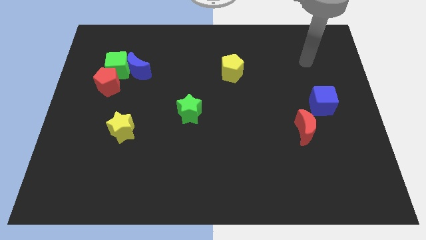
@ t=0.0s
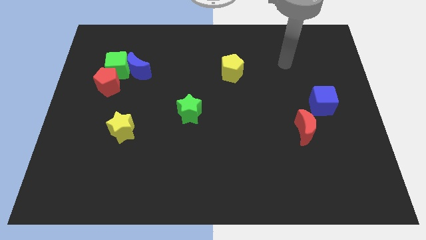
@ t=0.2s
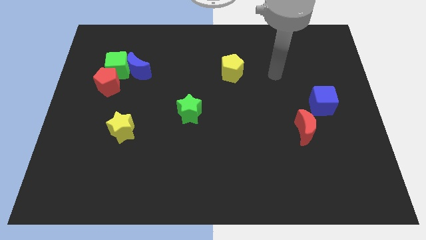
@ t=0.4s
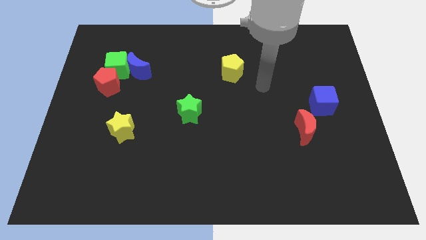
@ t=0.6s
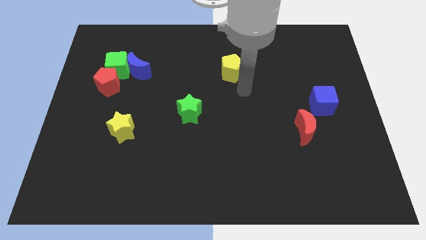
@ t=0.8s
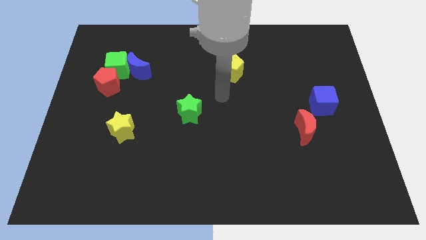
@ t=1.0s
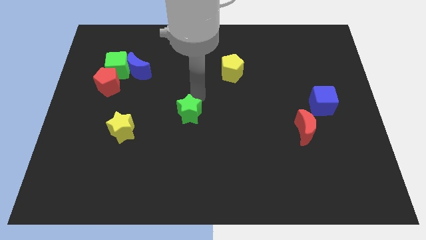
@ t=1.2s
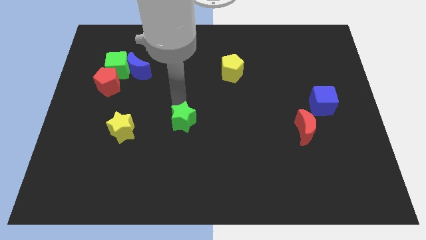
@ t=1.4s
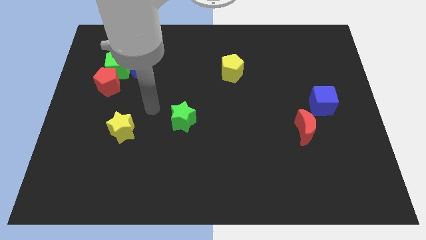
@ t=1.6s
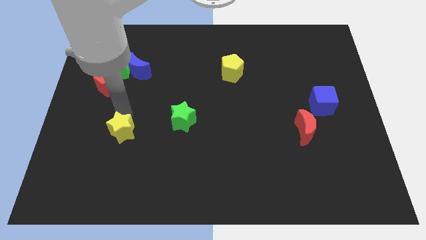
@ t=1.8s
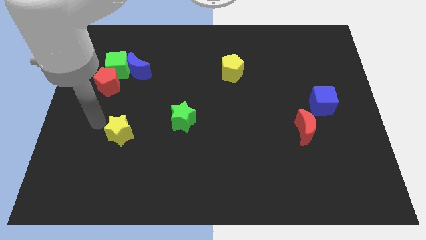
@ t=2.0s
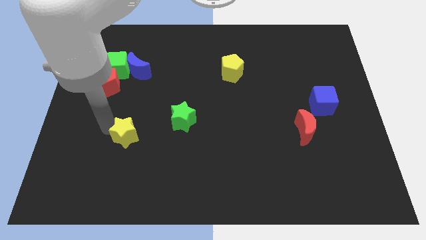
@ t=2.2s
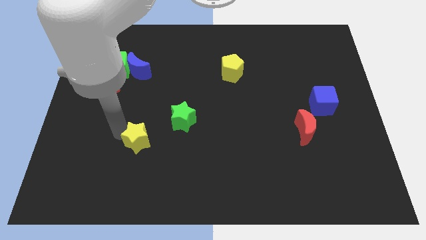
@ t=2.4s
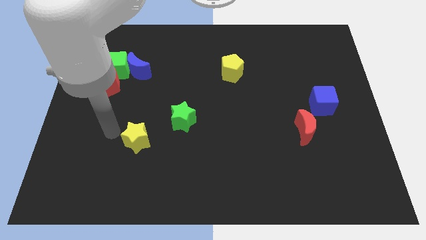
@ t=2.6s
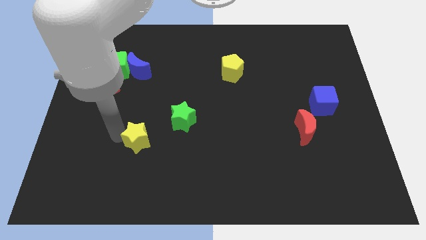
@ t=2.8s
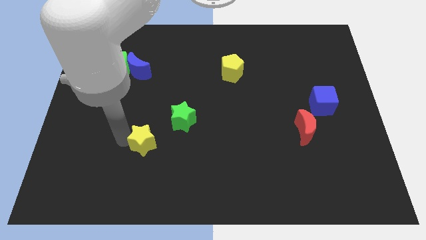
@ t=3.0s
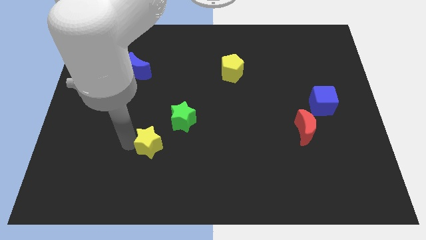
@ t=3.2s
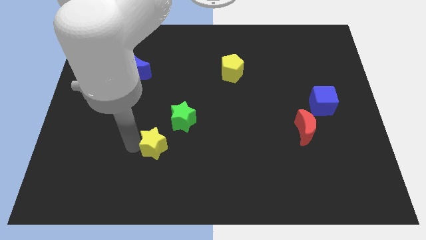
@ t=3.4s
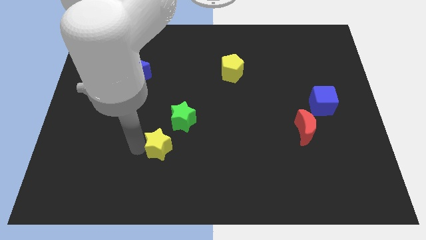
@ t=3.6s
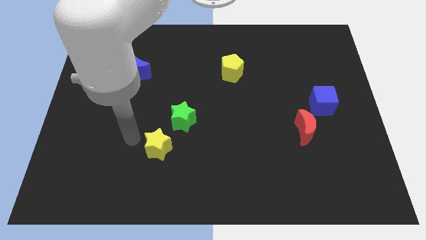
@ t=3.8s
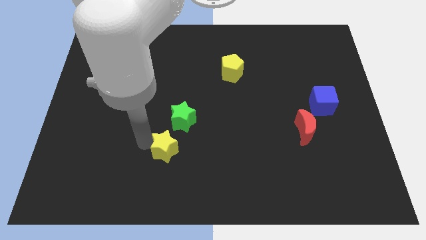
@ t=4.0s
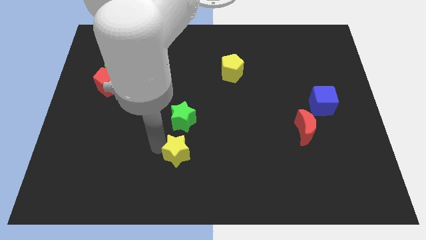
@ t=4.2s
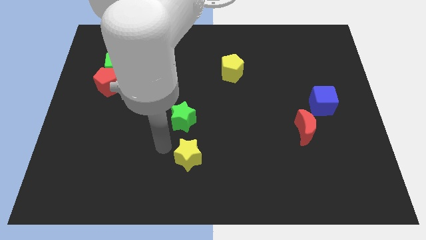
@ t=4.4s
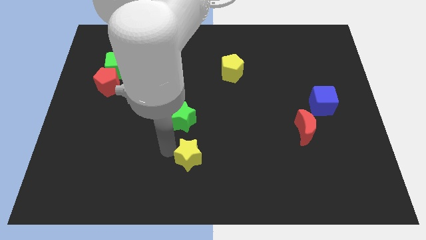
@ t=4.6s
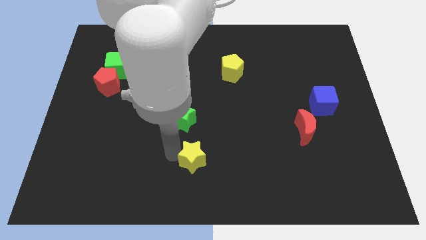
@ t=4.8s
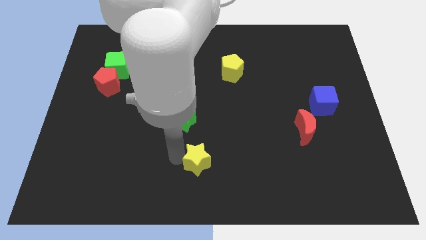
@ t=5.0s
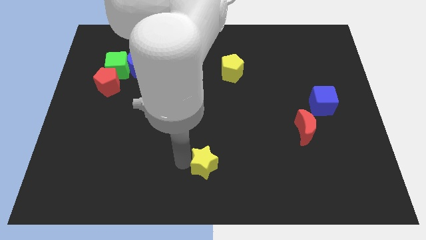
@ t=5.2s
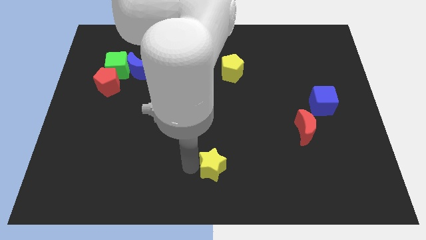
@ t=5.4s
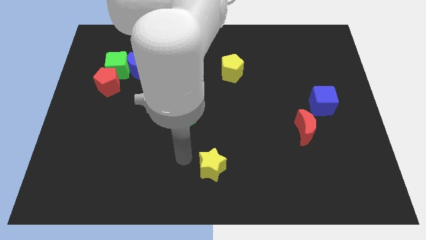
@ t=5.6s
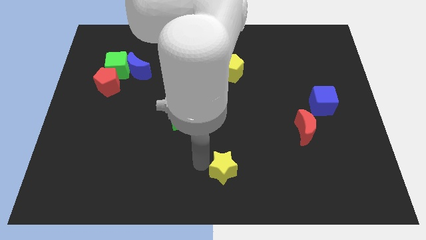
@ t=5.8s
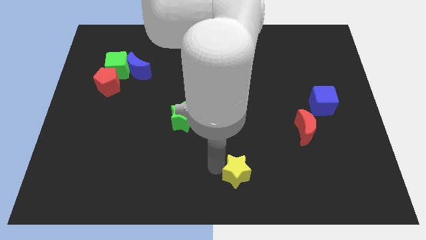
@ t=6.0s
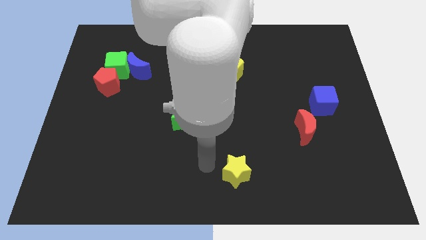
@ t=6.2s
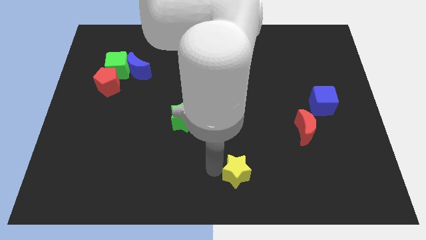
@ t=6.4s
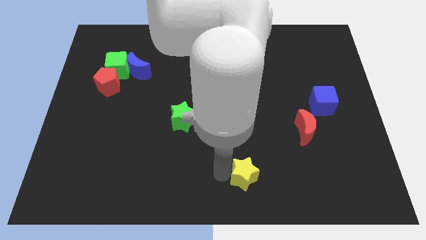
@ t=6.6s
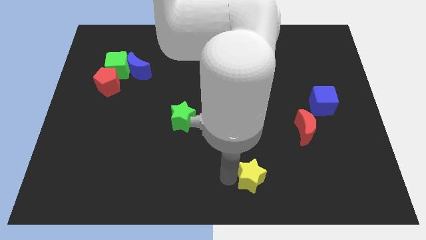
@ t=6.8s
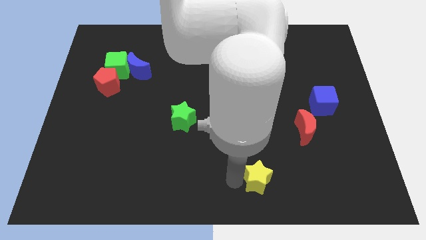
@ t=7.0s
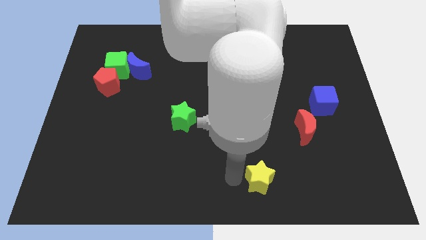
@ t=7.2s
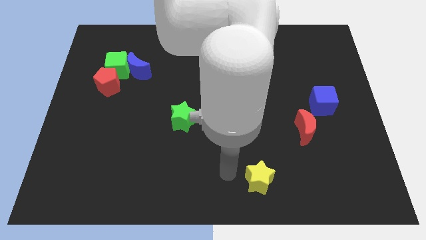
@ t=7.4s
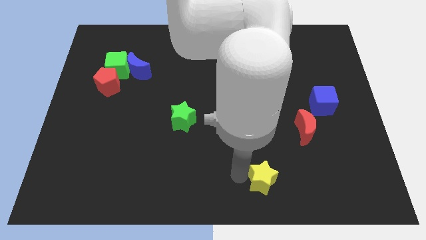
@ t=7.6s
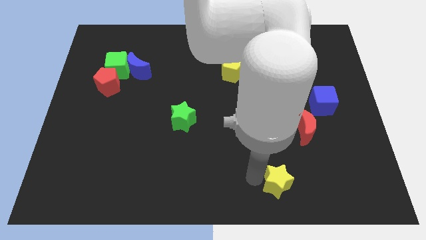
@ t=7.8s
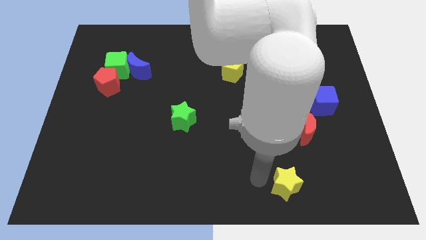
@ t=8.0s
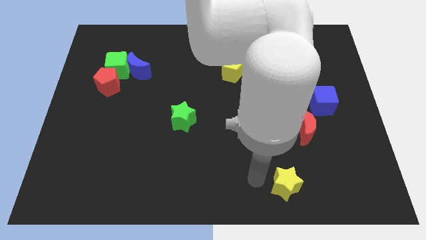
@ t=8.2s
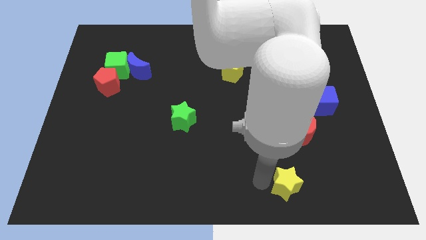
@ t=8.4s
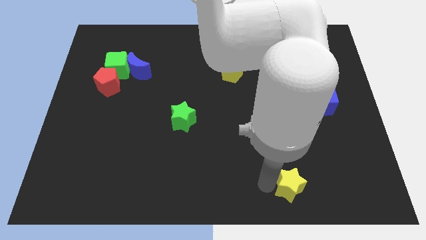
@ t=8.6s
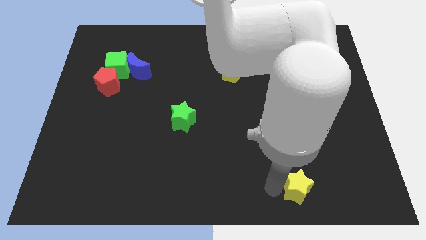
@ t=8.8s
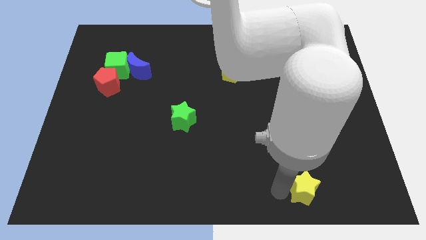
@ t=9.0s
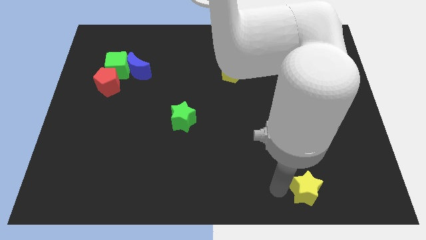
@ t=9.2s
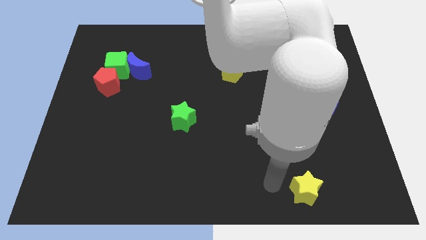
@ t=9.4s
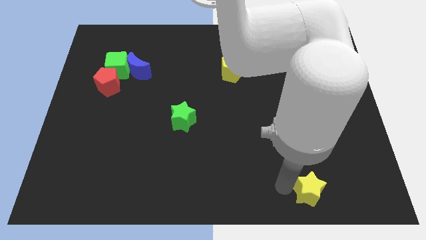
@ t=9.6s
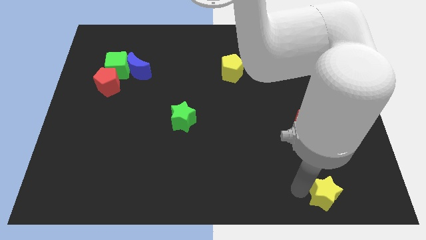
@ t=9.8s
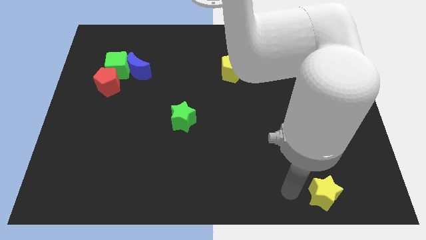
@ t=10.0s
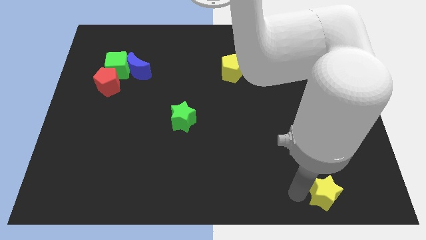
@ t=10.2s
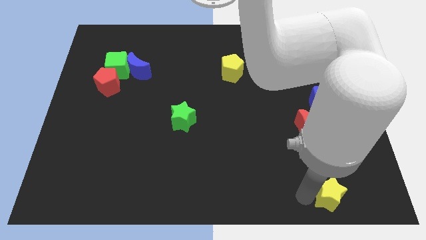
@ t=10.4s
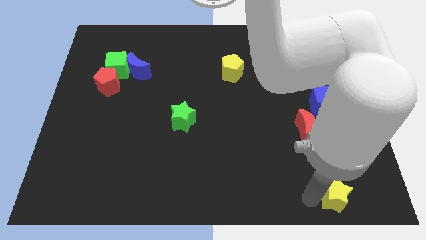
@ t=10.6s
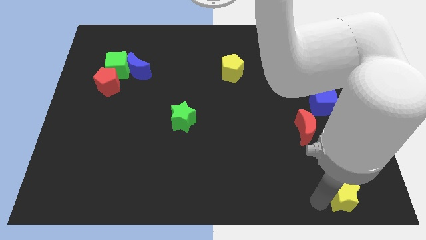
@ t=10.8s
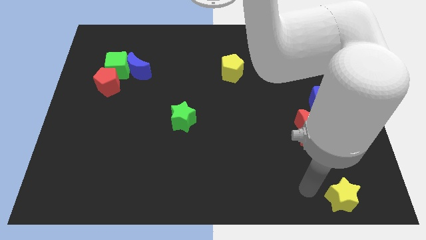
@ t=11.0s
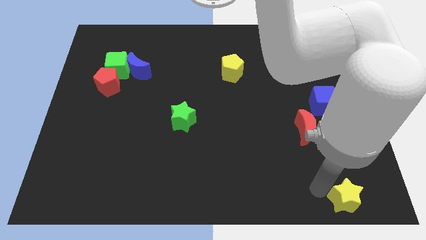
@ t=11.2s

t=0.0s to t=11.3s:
move the yellow star to the bottom right corner

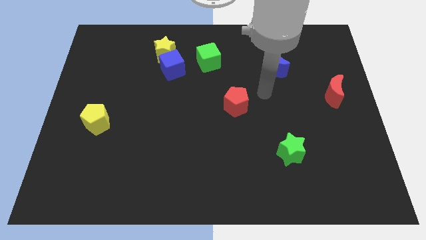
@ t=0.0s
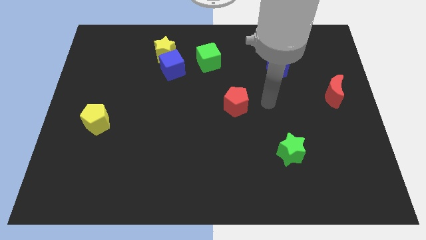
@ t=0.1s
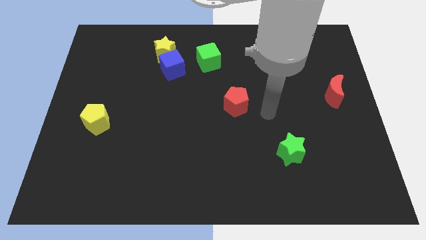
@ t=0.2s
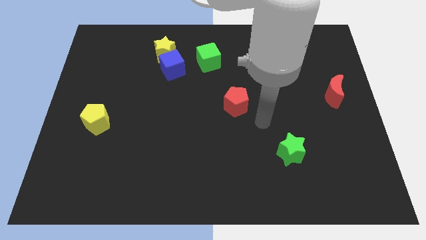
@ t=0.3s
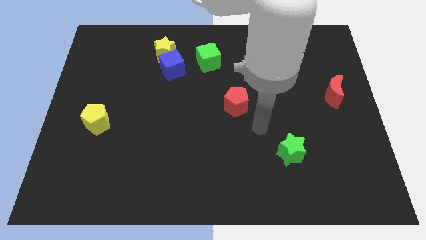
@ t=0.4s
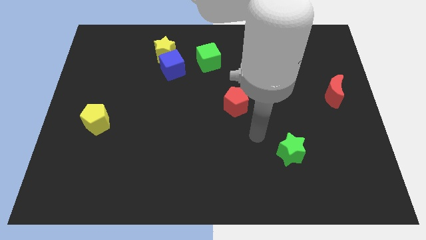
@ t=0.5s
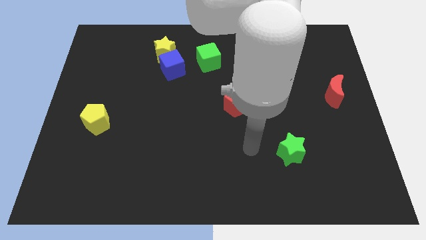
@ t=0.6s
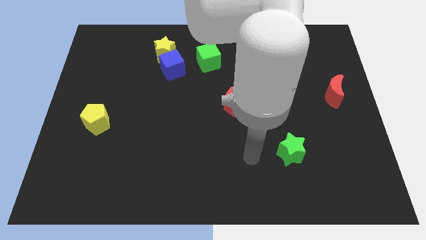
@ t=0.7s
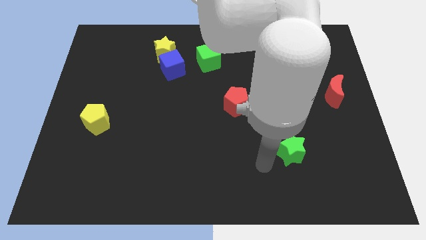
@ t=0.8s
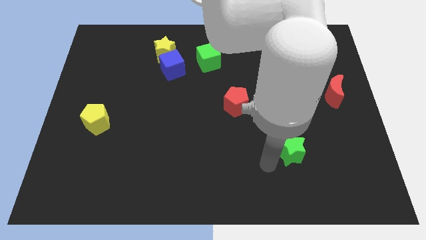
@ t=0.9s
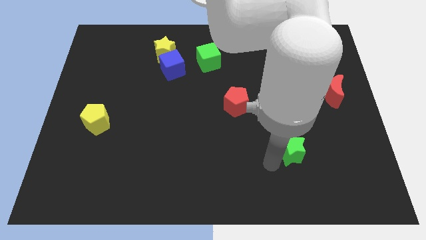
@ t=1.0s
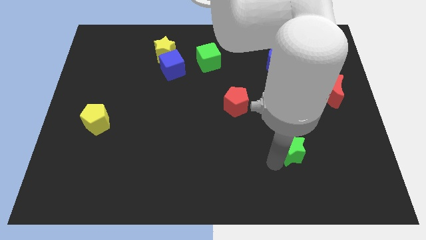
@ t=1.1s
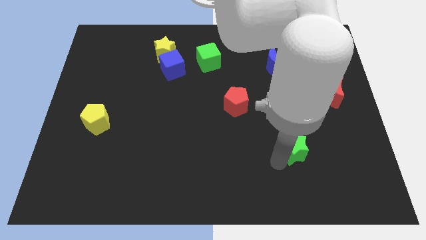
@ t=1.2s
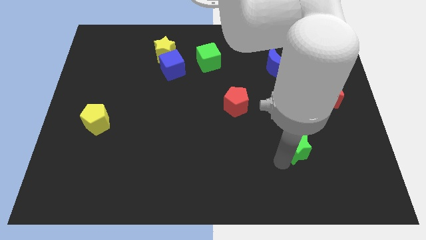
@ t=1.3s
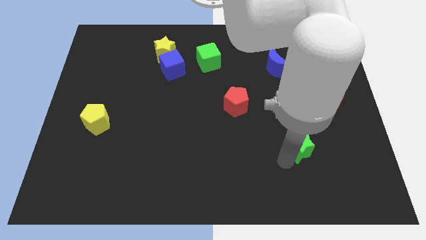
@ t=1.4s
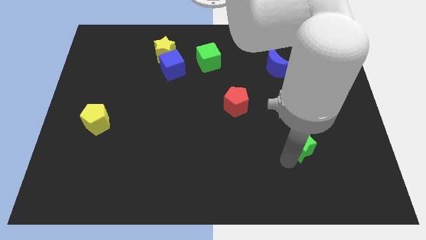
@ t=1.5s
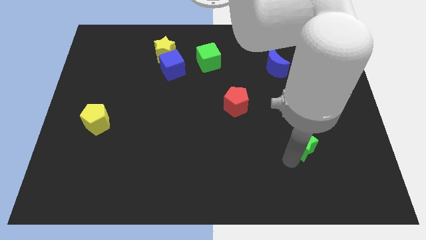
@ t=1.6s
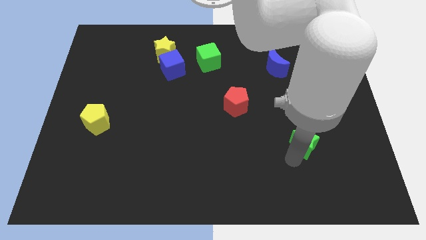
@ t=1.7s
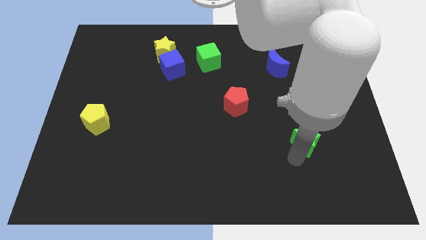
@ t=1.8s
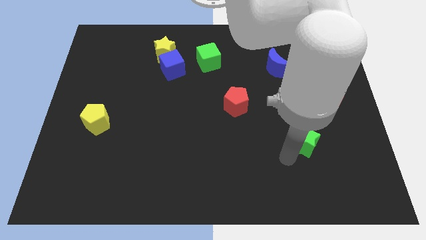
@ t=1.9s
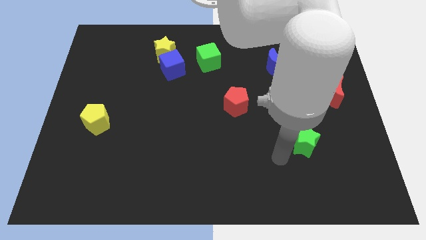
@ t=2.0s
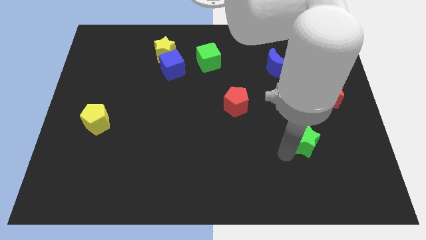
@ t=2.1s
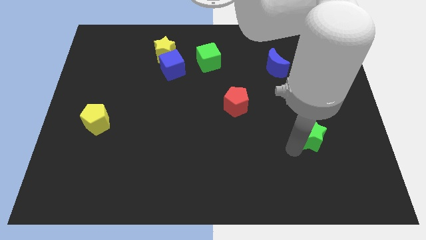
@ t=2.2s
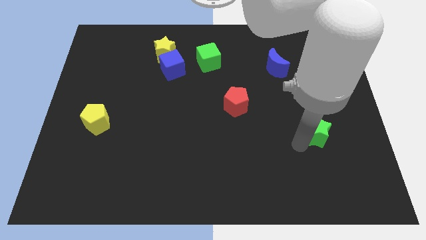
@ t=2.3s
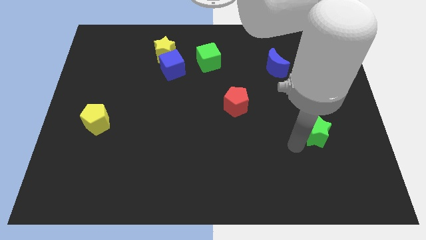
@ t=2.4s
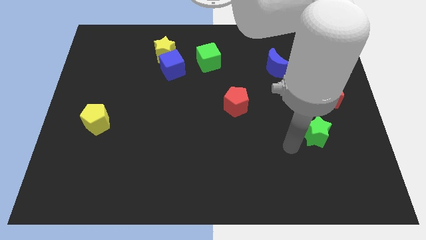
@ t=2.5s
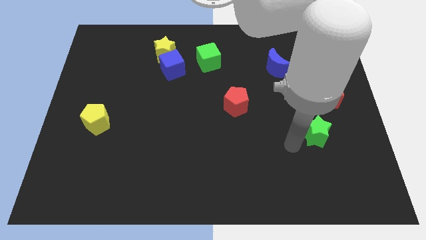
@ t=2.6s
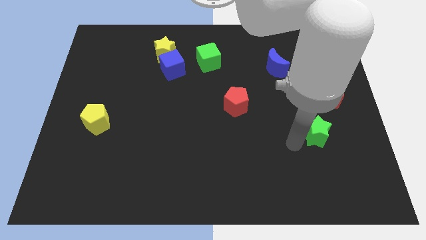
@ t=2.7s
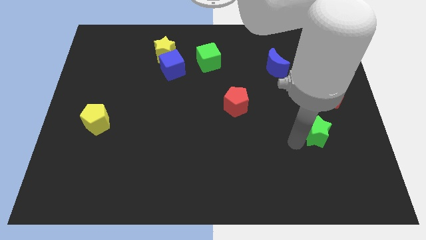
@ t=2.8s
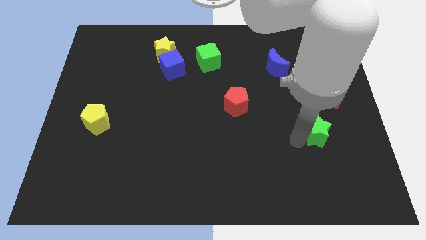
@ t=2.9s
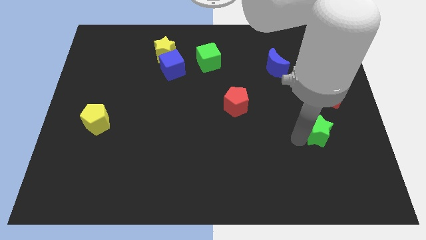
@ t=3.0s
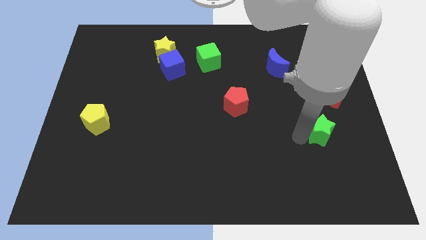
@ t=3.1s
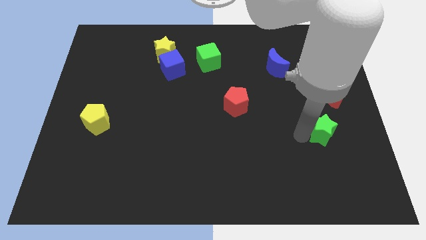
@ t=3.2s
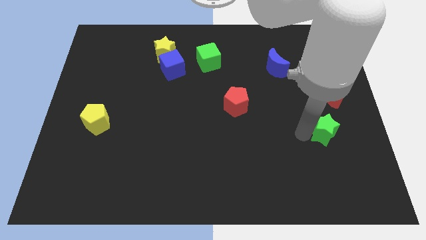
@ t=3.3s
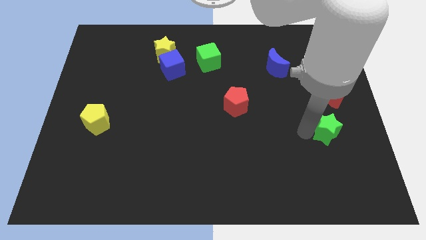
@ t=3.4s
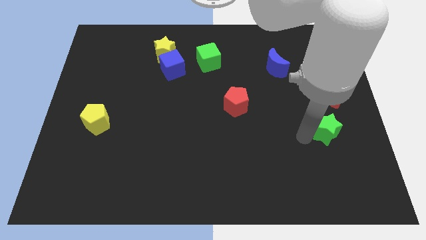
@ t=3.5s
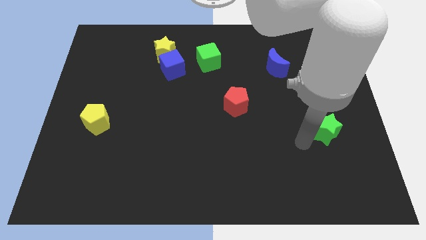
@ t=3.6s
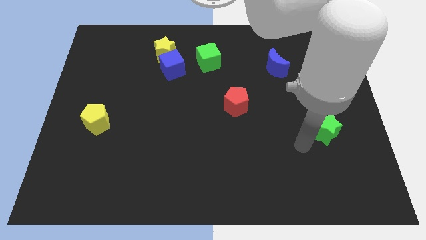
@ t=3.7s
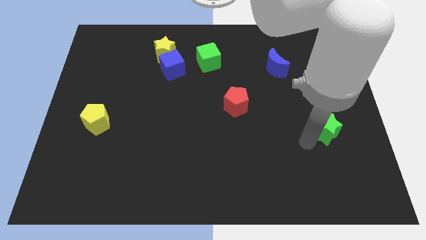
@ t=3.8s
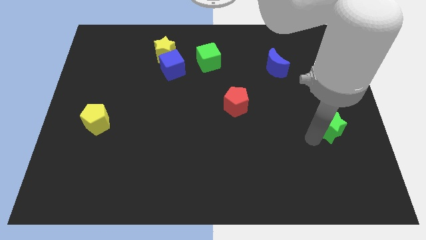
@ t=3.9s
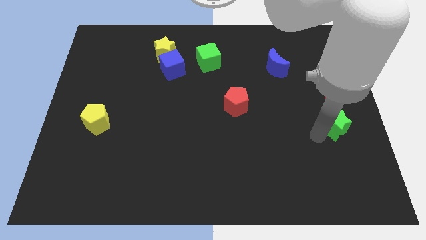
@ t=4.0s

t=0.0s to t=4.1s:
push the green star to the center right
